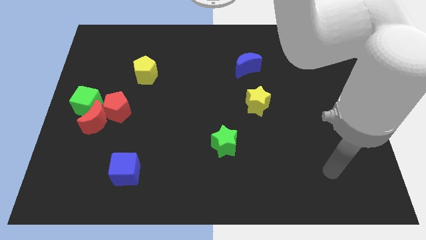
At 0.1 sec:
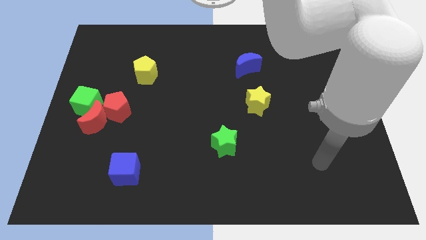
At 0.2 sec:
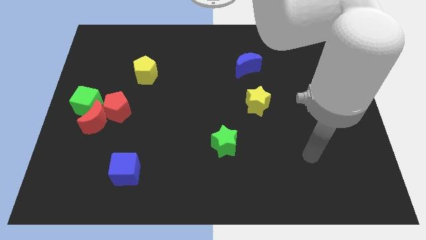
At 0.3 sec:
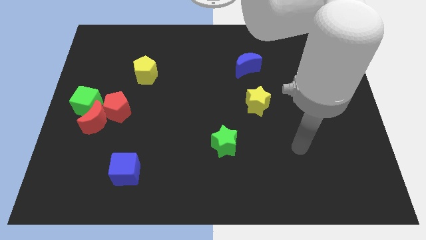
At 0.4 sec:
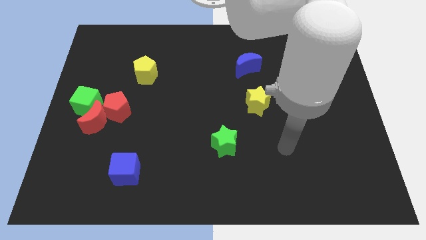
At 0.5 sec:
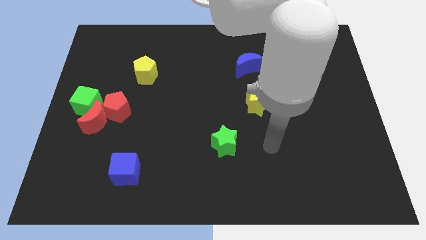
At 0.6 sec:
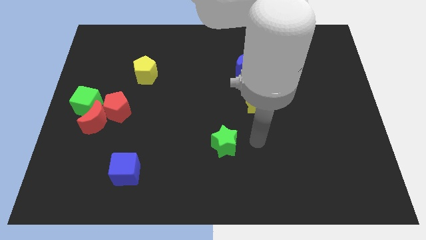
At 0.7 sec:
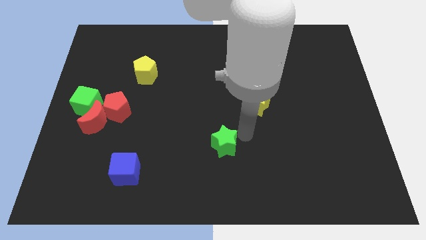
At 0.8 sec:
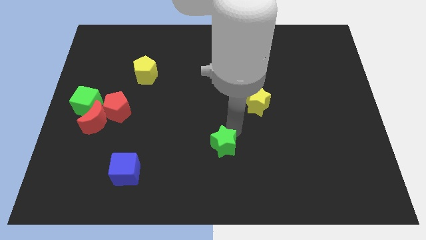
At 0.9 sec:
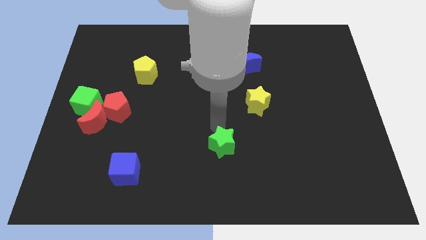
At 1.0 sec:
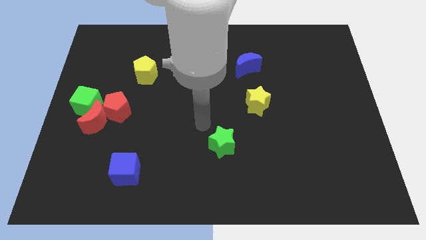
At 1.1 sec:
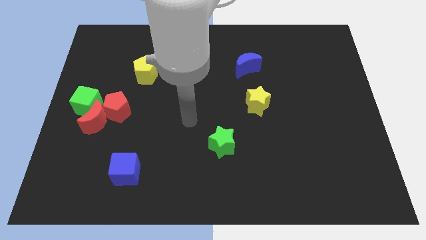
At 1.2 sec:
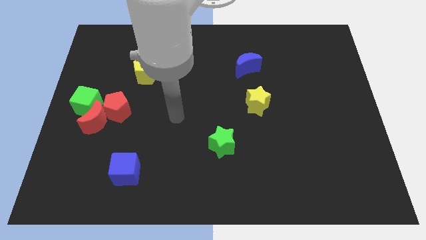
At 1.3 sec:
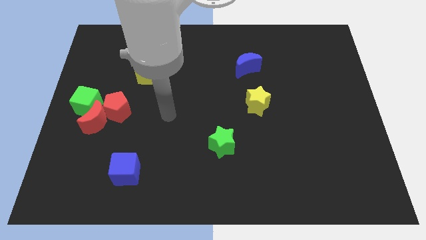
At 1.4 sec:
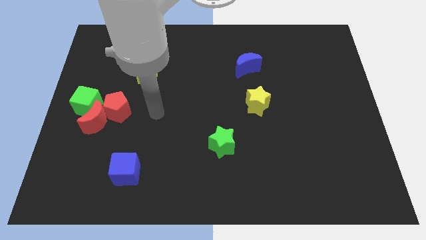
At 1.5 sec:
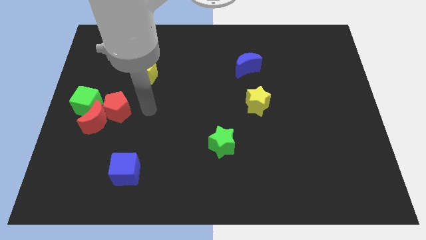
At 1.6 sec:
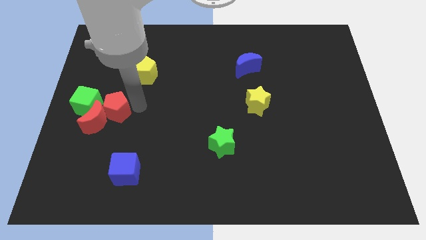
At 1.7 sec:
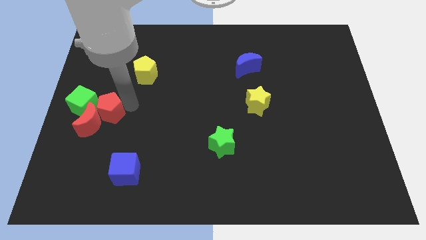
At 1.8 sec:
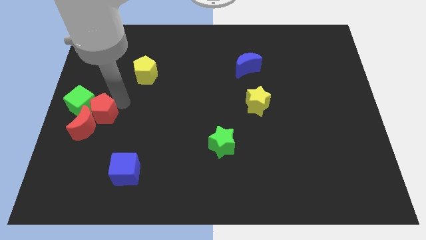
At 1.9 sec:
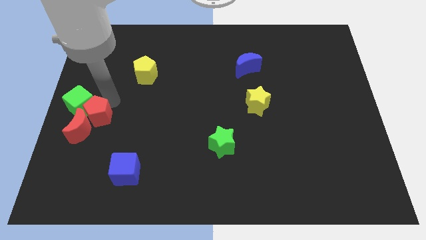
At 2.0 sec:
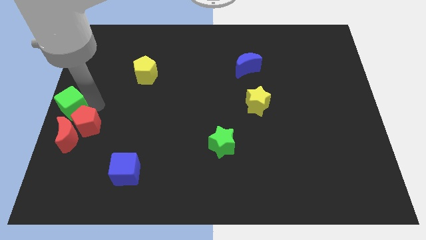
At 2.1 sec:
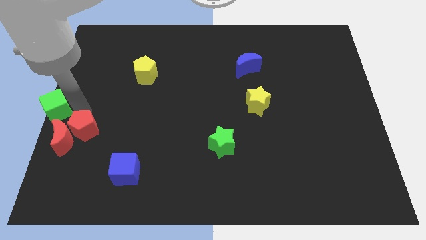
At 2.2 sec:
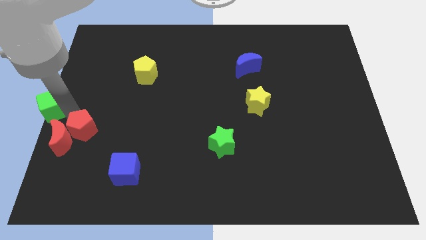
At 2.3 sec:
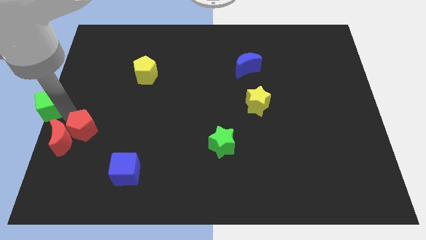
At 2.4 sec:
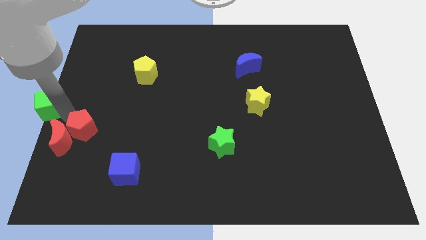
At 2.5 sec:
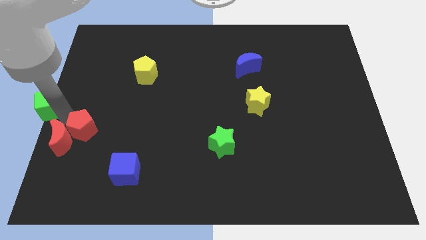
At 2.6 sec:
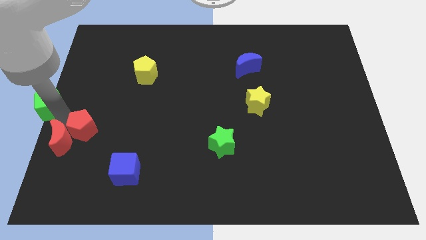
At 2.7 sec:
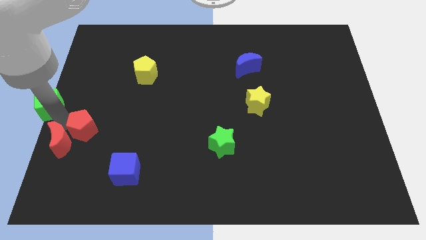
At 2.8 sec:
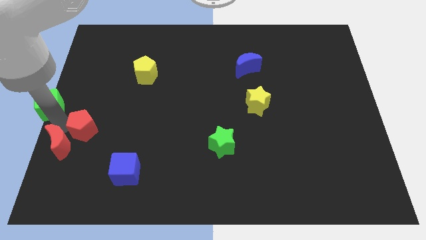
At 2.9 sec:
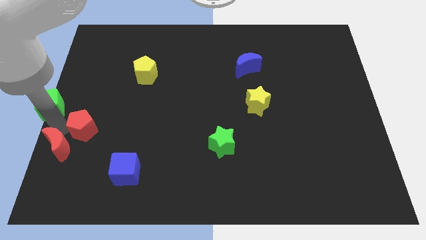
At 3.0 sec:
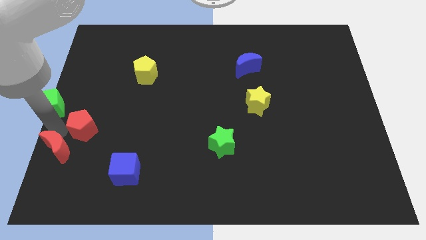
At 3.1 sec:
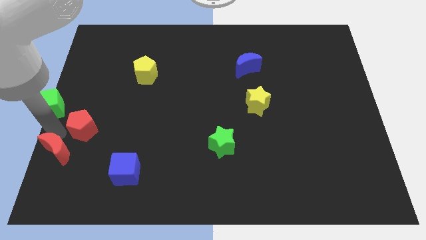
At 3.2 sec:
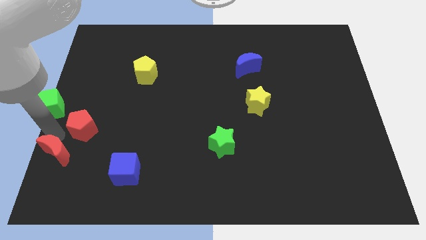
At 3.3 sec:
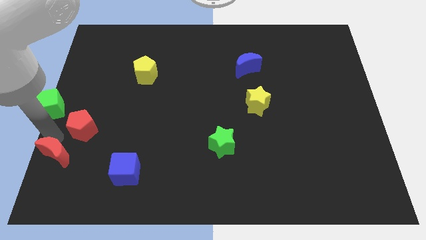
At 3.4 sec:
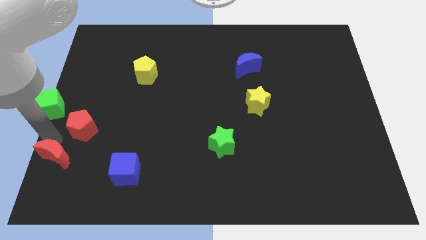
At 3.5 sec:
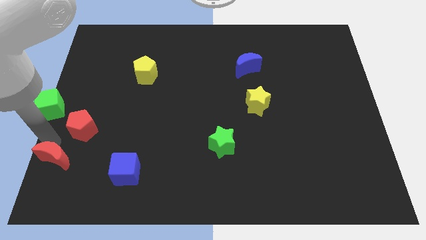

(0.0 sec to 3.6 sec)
separate the red moon from the red pentagon and green cube

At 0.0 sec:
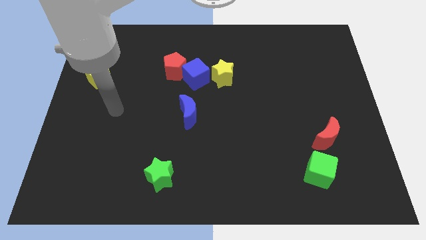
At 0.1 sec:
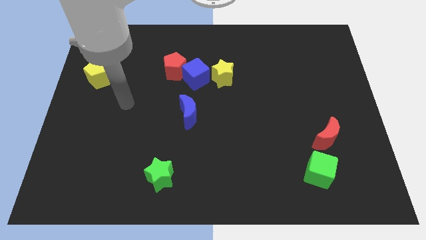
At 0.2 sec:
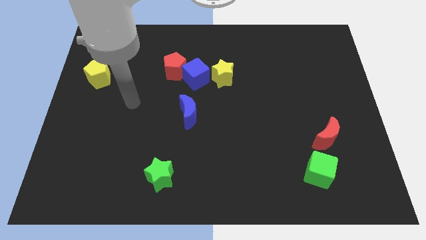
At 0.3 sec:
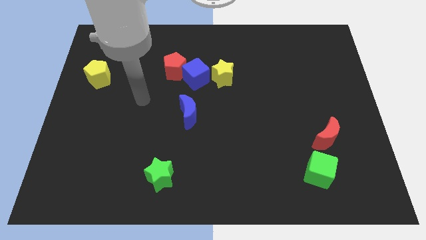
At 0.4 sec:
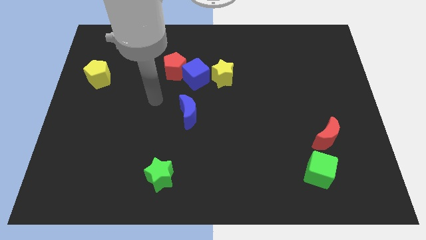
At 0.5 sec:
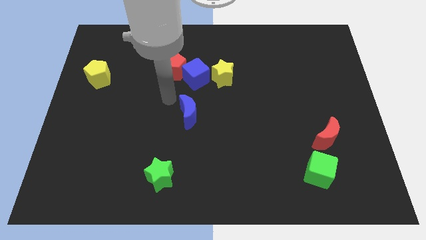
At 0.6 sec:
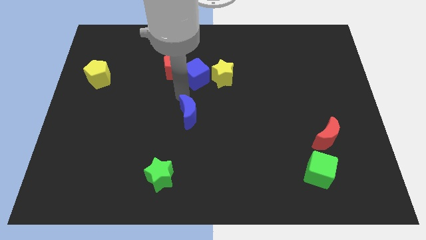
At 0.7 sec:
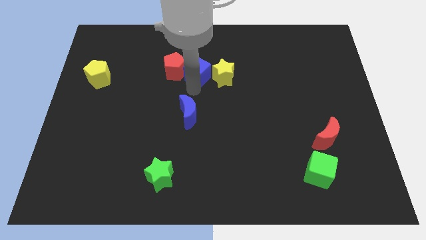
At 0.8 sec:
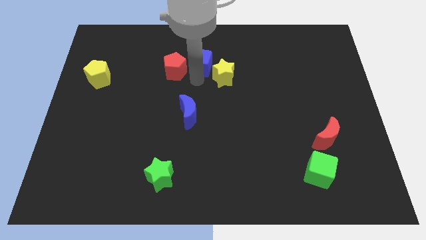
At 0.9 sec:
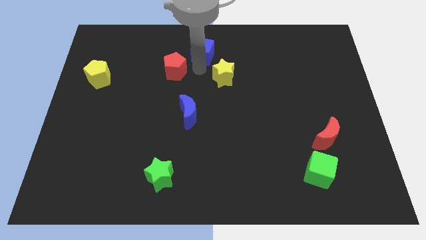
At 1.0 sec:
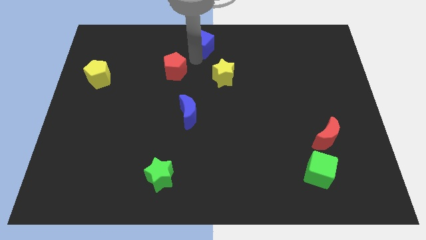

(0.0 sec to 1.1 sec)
pull the red pentagon apart from the blue cube

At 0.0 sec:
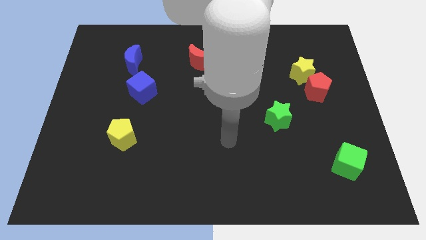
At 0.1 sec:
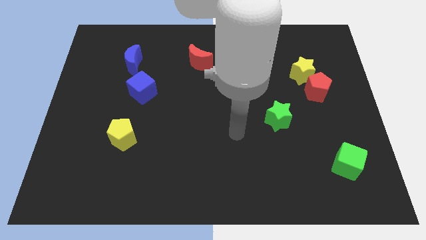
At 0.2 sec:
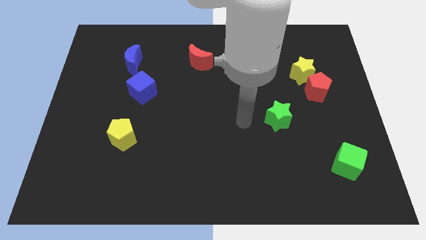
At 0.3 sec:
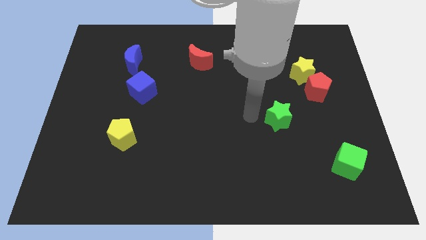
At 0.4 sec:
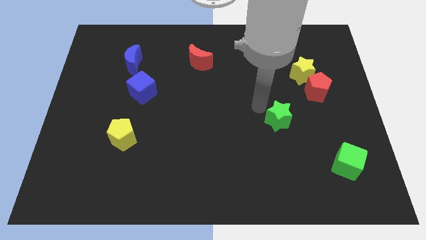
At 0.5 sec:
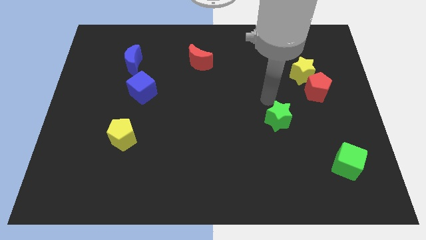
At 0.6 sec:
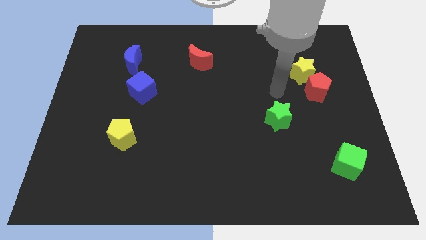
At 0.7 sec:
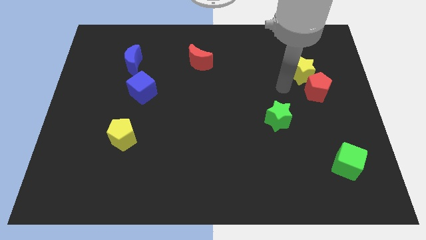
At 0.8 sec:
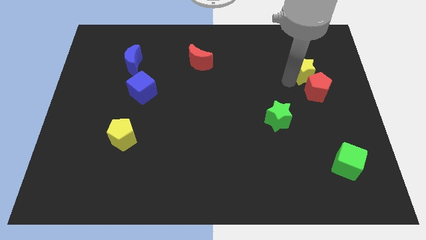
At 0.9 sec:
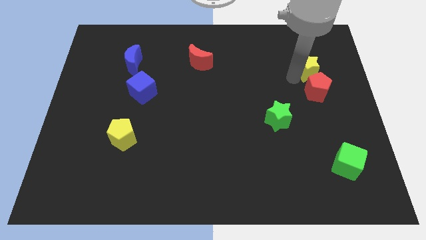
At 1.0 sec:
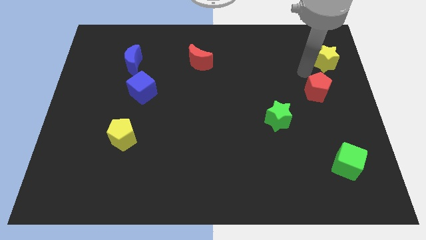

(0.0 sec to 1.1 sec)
separate the red pentagon from the yellow star

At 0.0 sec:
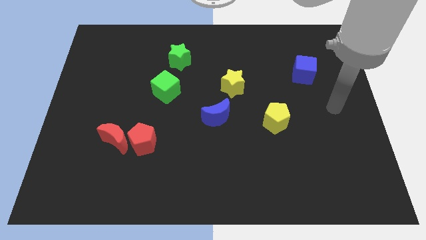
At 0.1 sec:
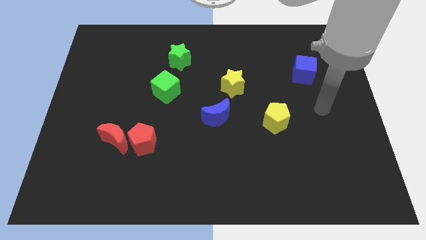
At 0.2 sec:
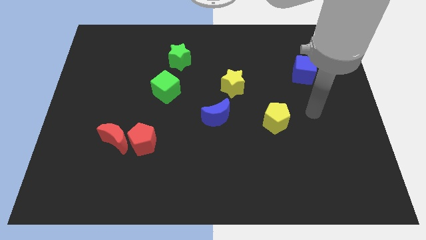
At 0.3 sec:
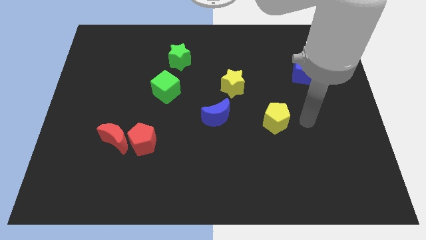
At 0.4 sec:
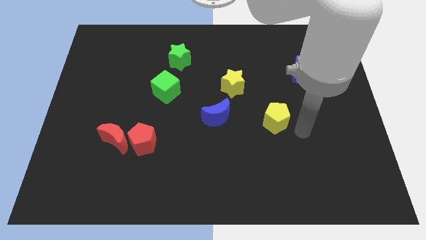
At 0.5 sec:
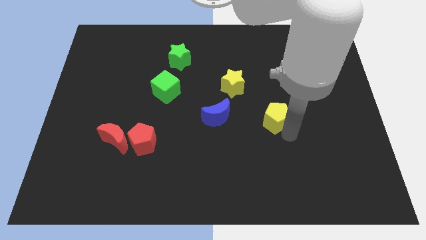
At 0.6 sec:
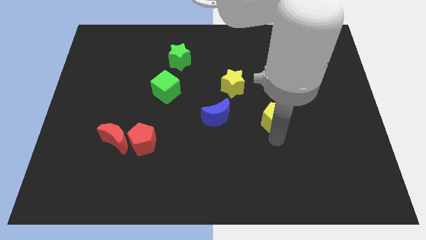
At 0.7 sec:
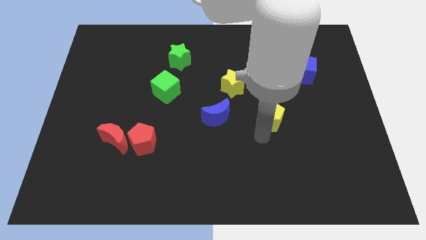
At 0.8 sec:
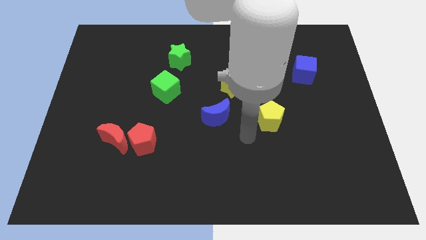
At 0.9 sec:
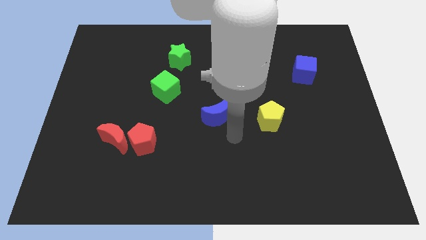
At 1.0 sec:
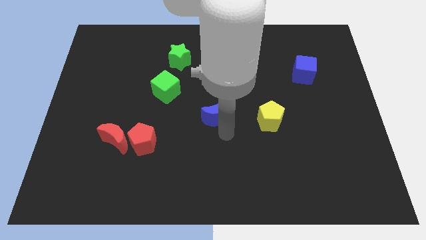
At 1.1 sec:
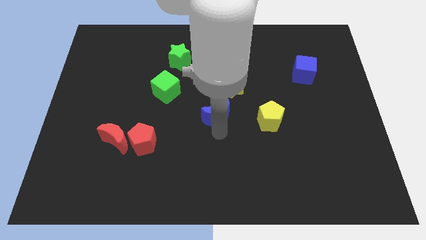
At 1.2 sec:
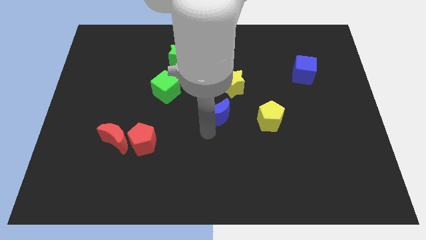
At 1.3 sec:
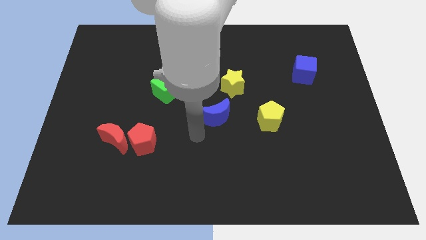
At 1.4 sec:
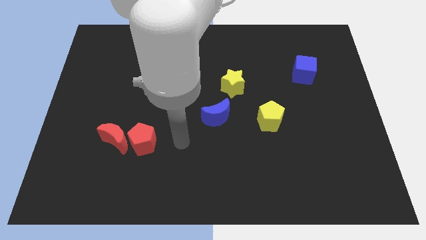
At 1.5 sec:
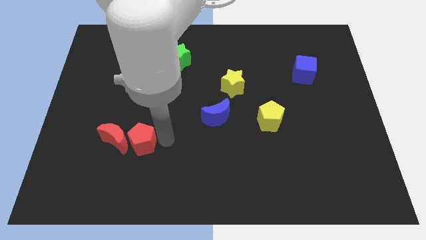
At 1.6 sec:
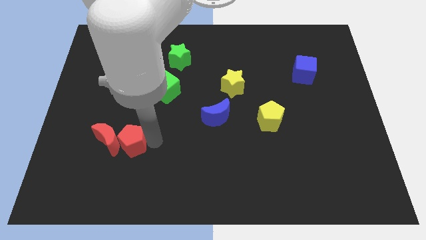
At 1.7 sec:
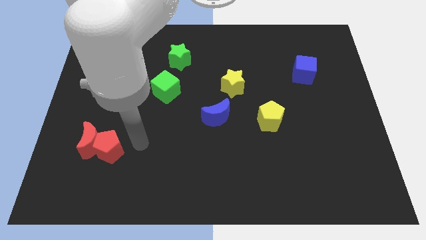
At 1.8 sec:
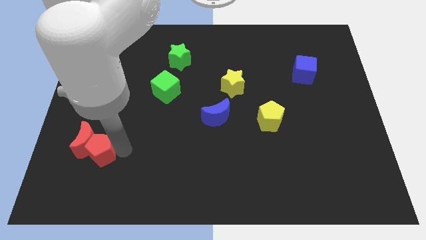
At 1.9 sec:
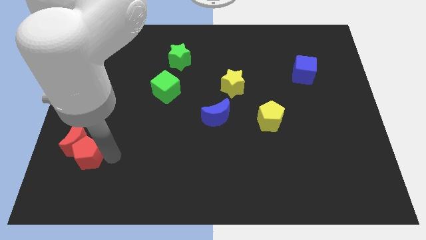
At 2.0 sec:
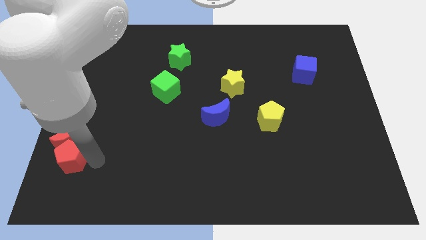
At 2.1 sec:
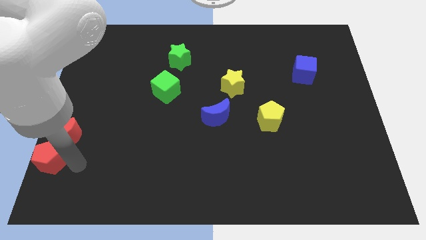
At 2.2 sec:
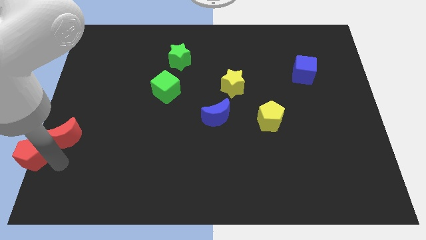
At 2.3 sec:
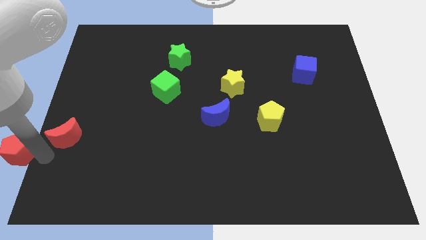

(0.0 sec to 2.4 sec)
separate the red moon from the red pentagon

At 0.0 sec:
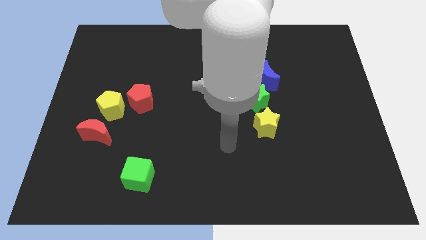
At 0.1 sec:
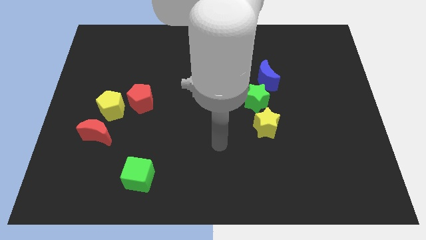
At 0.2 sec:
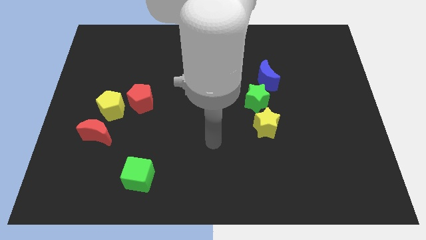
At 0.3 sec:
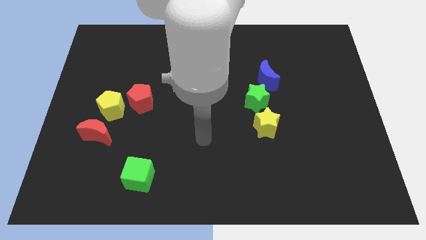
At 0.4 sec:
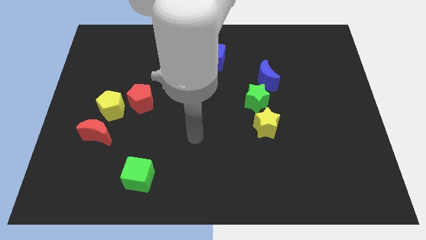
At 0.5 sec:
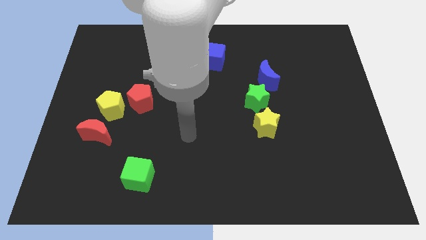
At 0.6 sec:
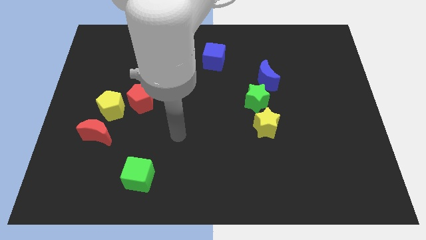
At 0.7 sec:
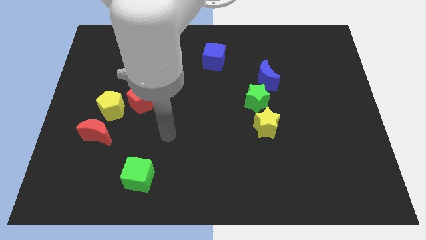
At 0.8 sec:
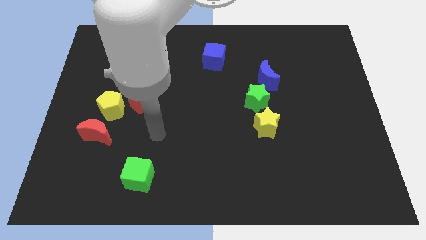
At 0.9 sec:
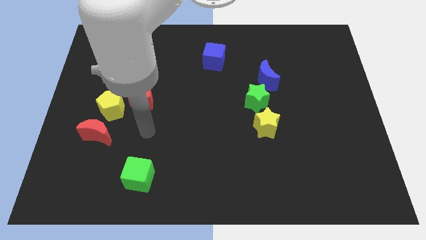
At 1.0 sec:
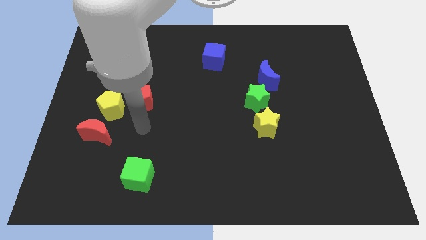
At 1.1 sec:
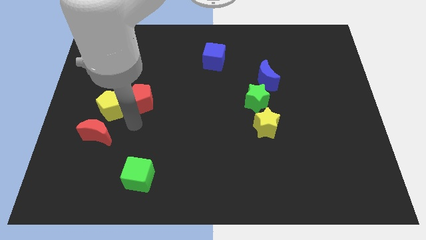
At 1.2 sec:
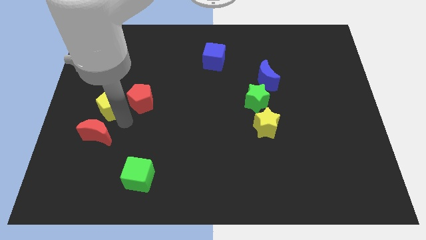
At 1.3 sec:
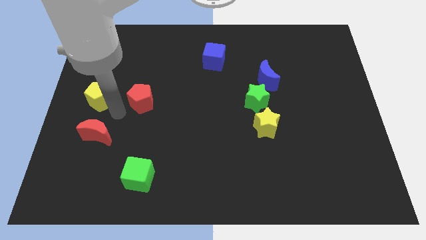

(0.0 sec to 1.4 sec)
pull the red pentagon apart from the yellow pentagon
